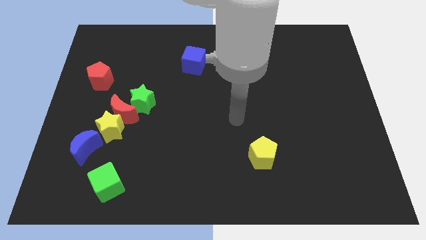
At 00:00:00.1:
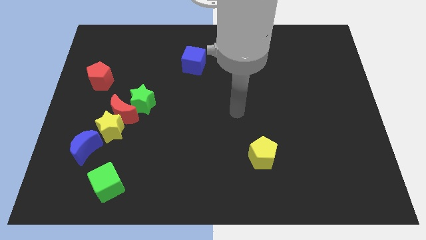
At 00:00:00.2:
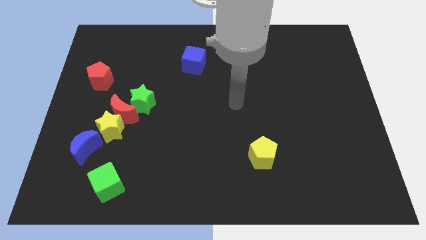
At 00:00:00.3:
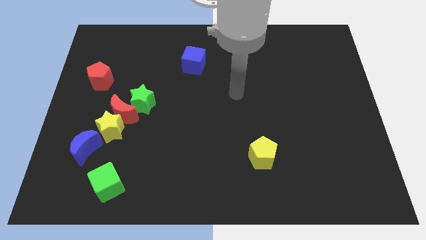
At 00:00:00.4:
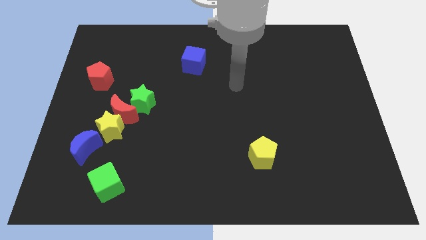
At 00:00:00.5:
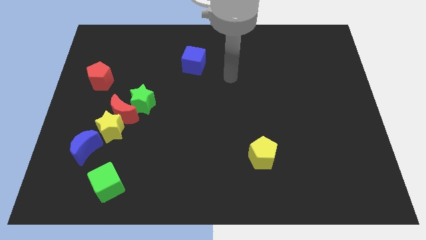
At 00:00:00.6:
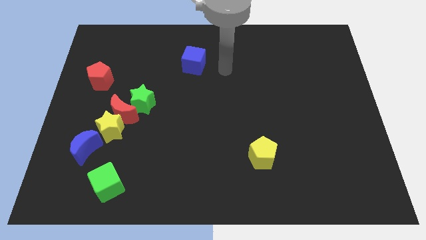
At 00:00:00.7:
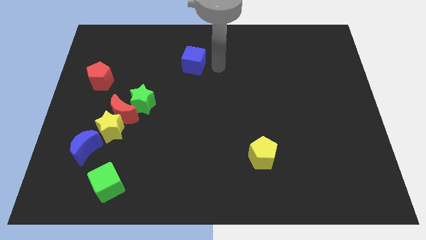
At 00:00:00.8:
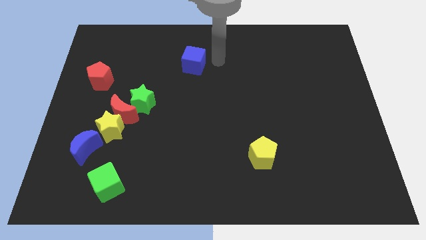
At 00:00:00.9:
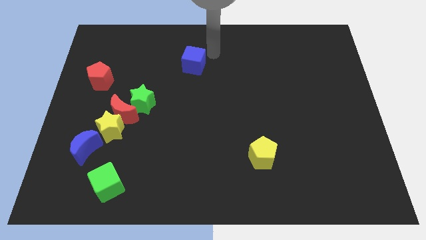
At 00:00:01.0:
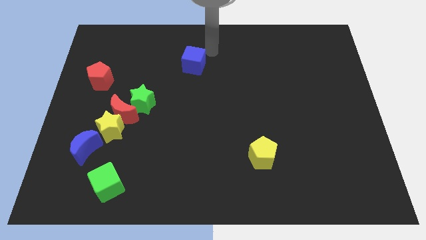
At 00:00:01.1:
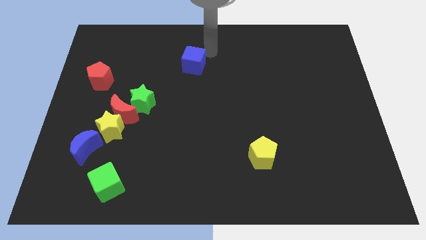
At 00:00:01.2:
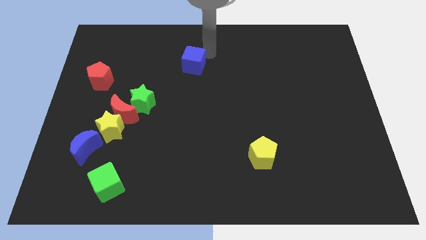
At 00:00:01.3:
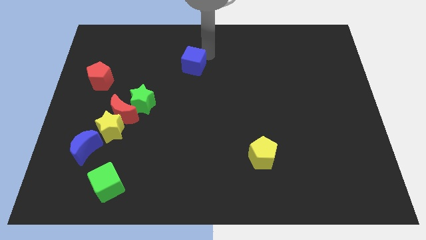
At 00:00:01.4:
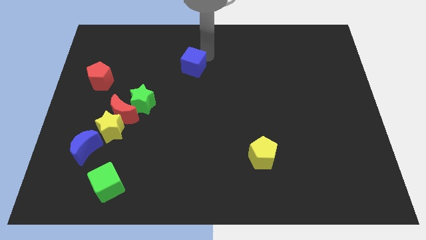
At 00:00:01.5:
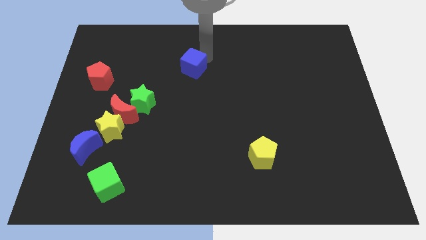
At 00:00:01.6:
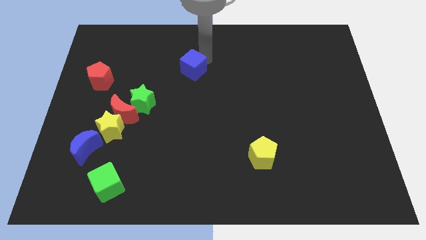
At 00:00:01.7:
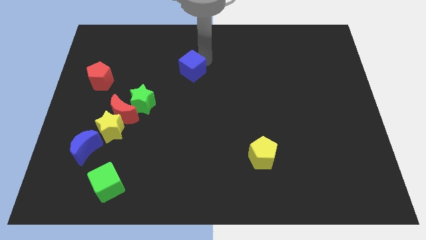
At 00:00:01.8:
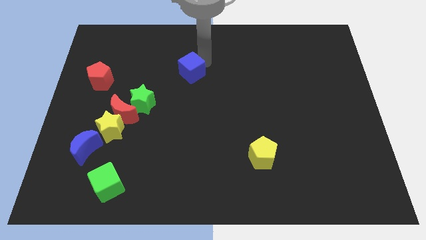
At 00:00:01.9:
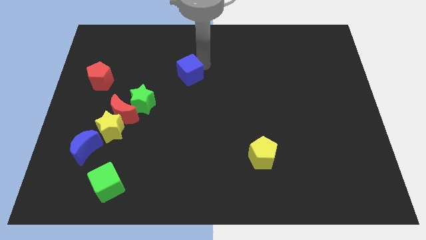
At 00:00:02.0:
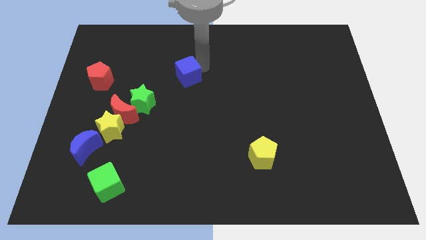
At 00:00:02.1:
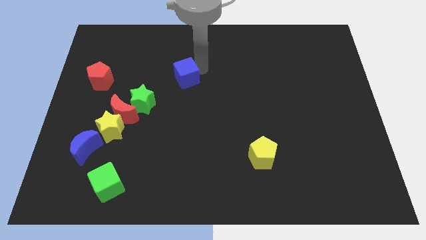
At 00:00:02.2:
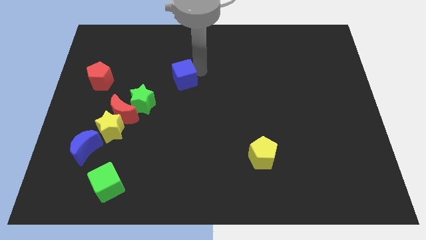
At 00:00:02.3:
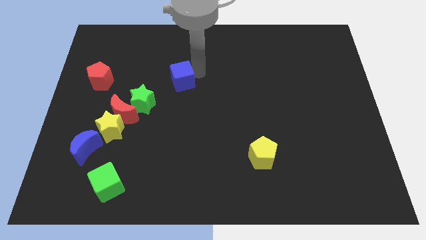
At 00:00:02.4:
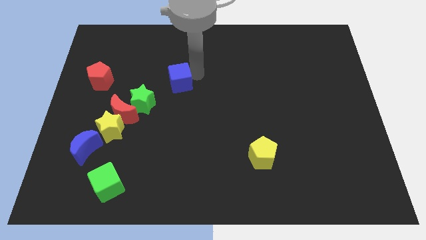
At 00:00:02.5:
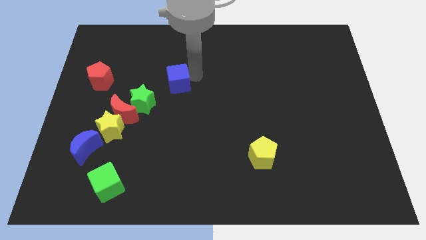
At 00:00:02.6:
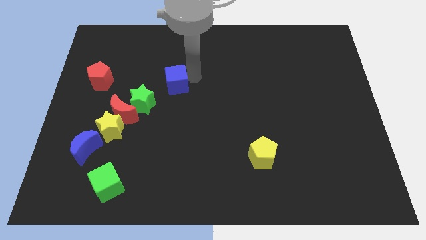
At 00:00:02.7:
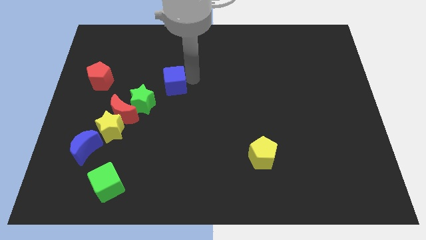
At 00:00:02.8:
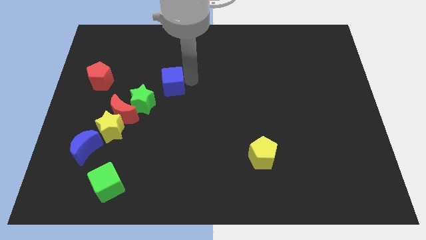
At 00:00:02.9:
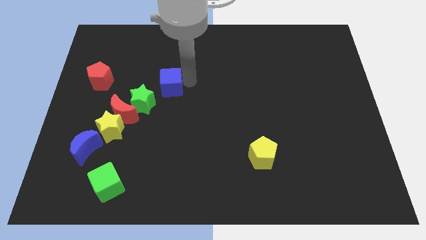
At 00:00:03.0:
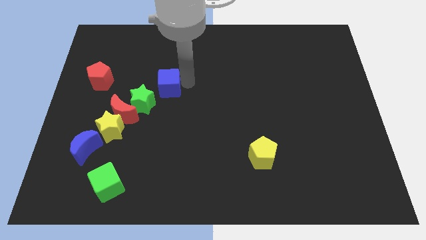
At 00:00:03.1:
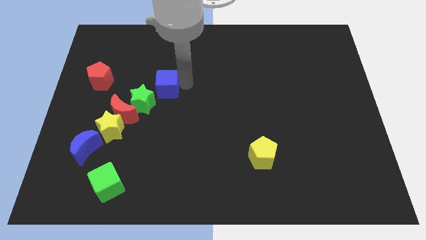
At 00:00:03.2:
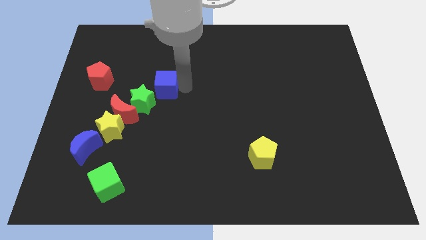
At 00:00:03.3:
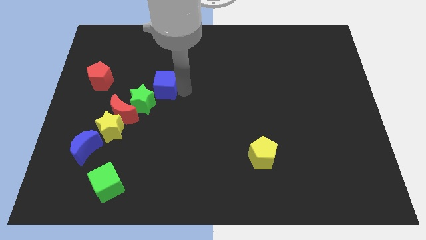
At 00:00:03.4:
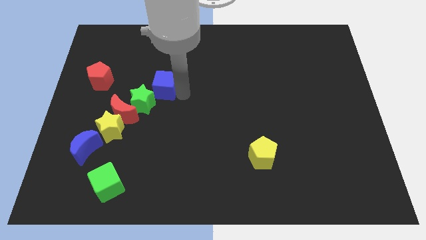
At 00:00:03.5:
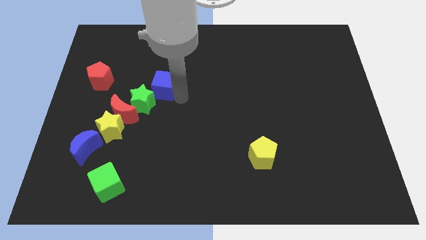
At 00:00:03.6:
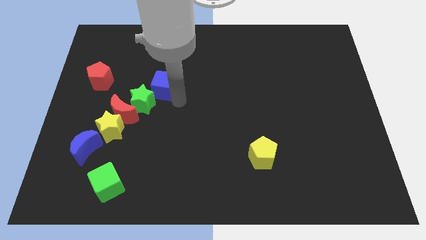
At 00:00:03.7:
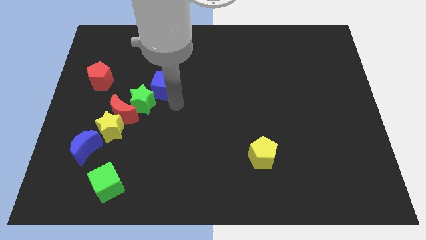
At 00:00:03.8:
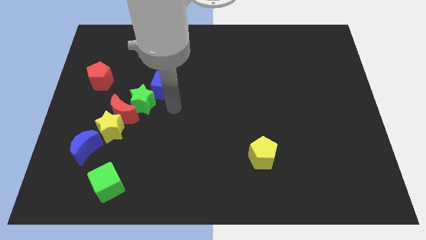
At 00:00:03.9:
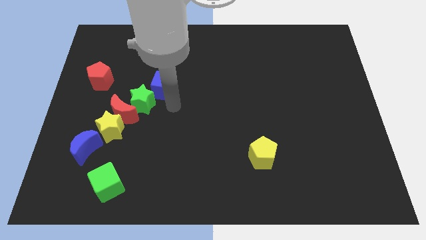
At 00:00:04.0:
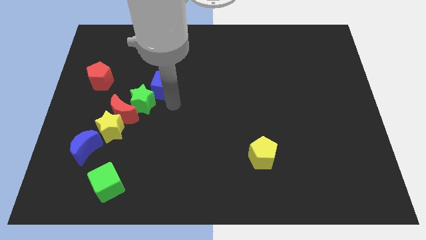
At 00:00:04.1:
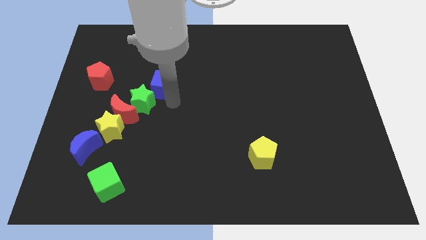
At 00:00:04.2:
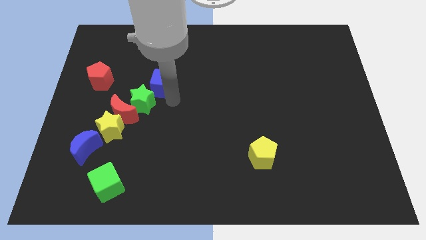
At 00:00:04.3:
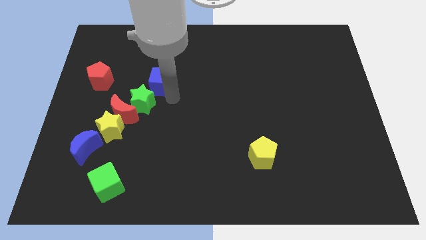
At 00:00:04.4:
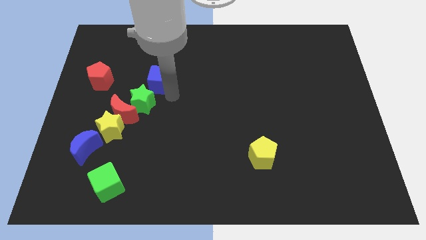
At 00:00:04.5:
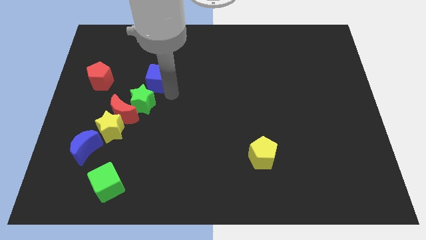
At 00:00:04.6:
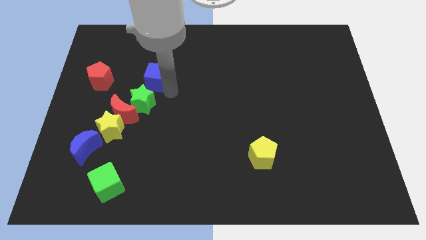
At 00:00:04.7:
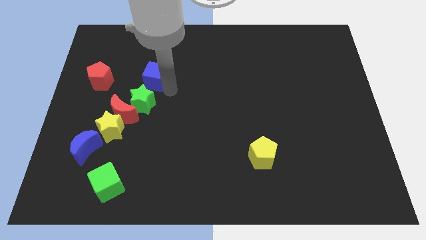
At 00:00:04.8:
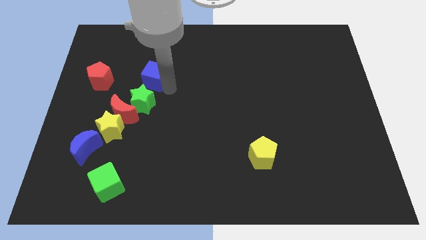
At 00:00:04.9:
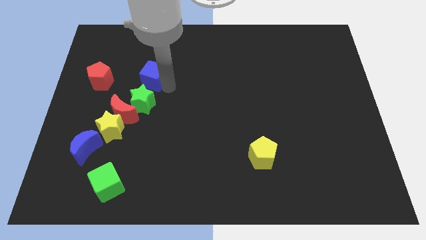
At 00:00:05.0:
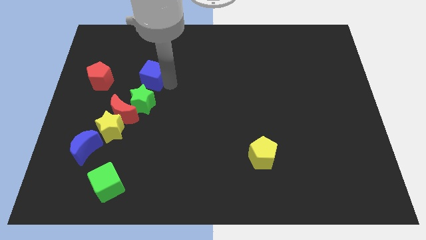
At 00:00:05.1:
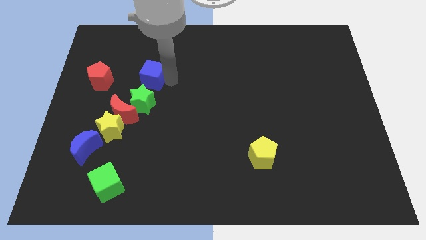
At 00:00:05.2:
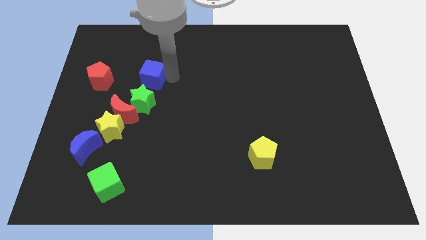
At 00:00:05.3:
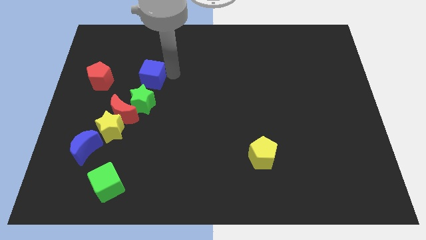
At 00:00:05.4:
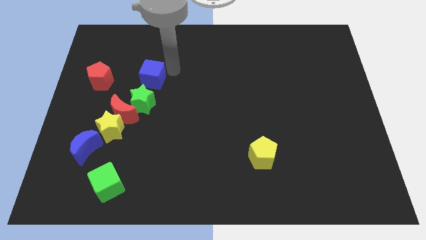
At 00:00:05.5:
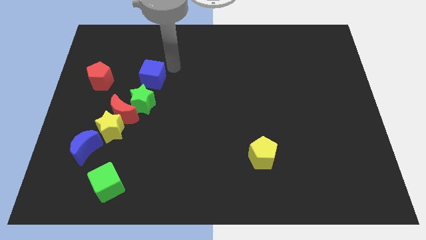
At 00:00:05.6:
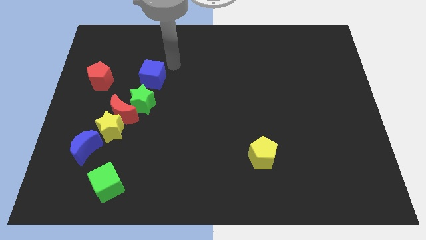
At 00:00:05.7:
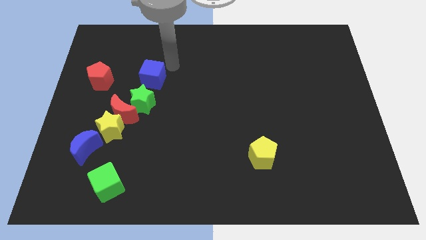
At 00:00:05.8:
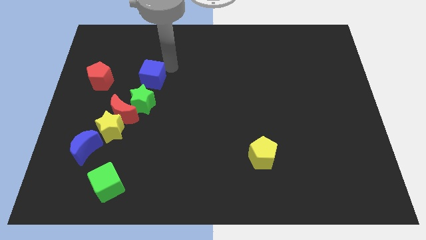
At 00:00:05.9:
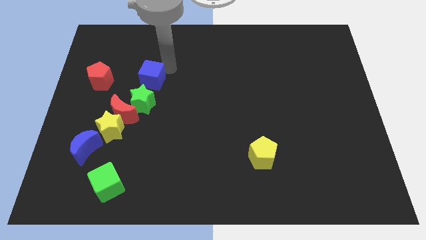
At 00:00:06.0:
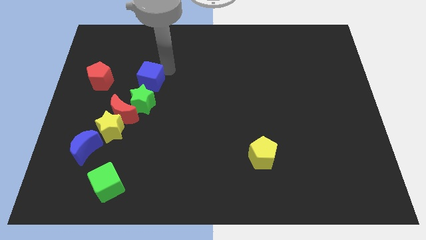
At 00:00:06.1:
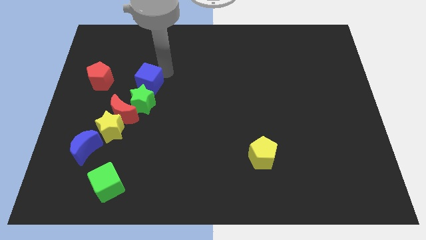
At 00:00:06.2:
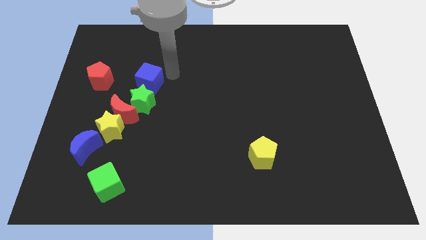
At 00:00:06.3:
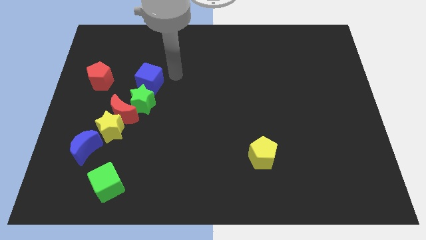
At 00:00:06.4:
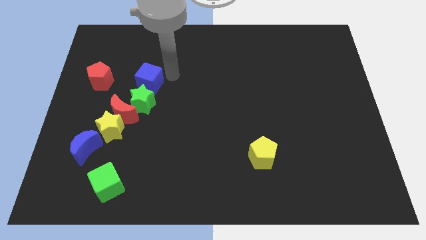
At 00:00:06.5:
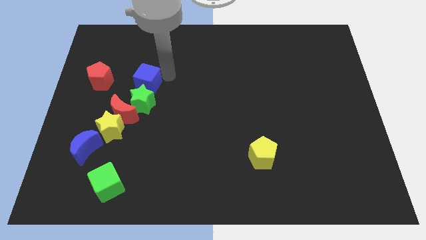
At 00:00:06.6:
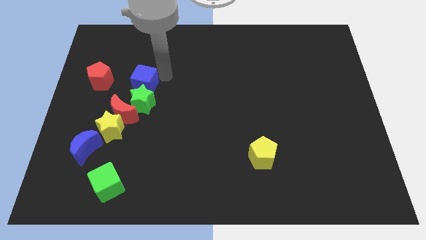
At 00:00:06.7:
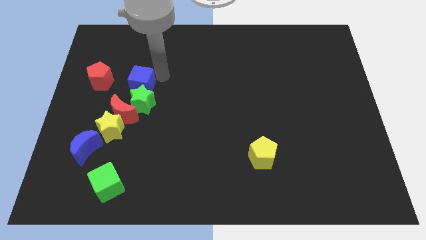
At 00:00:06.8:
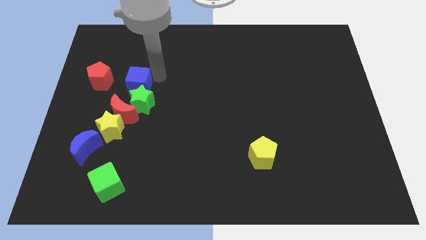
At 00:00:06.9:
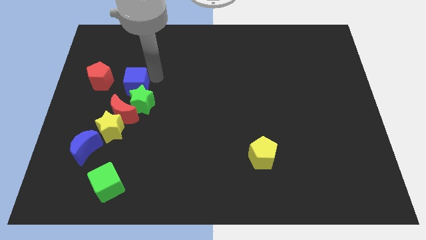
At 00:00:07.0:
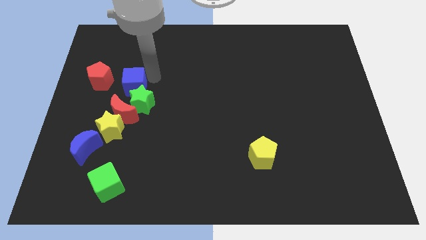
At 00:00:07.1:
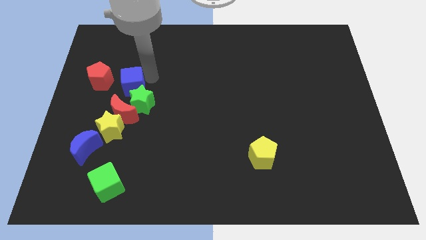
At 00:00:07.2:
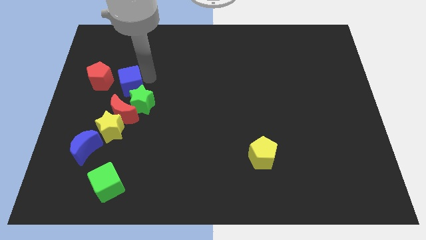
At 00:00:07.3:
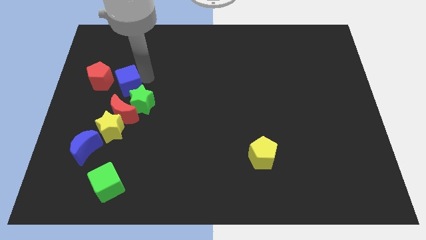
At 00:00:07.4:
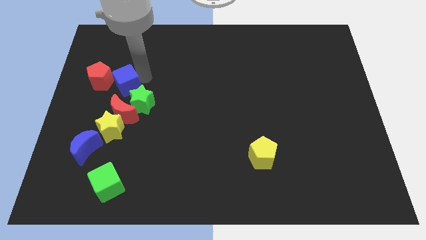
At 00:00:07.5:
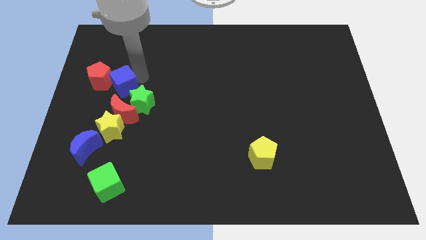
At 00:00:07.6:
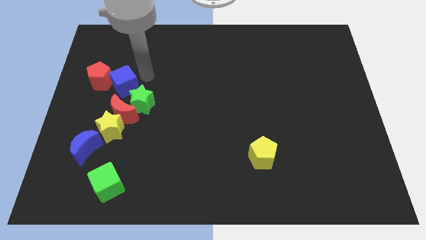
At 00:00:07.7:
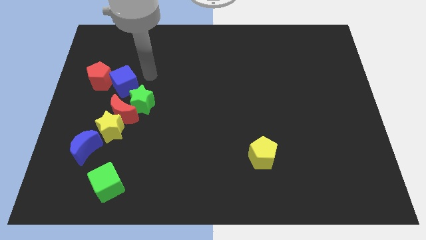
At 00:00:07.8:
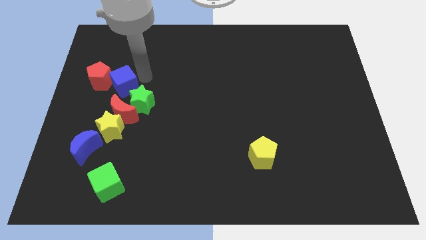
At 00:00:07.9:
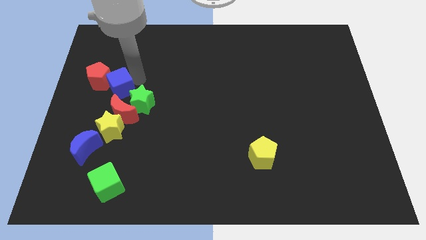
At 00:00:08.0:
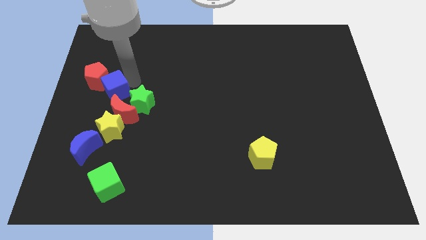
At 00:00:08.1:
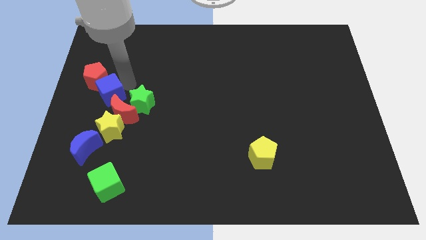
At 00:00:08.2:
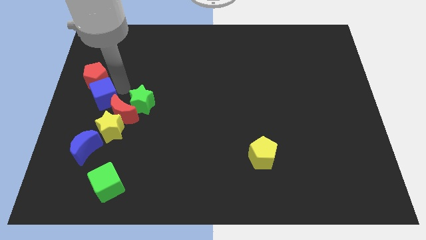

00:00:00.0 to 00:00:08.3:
put the blue cube to the left side of the board
